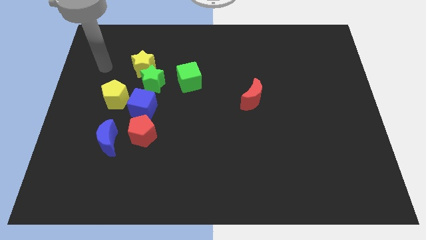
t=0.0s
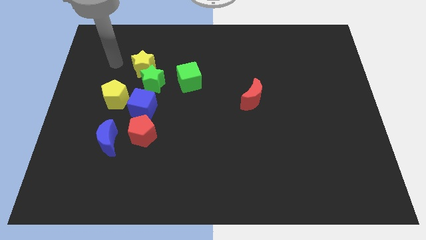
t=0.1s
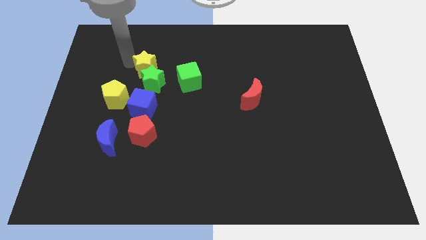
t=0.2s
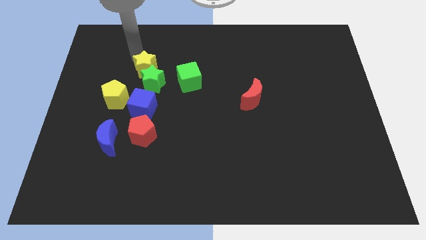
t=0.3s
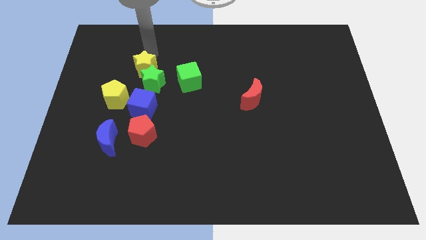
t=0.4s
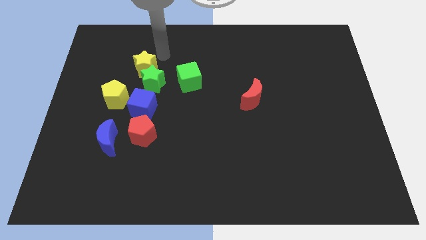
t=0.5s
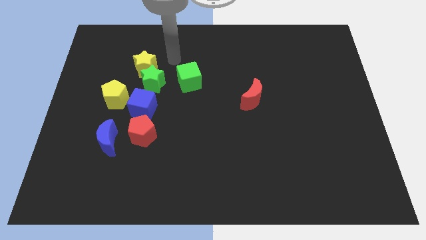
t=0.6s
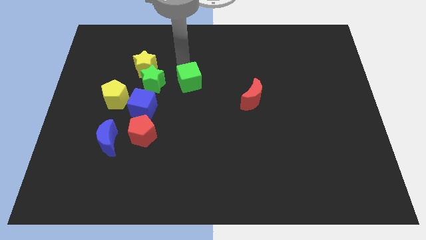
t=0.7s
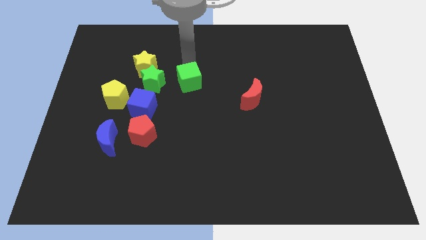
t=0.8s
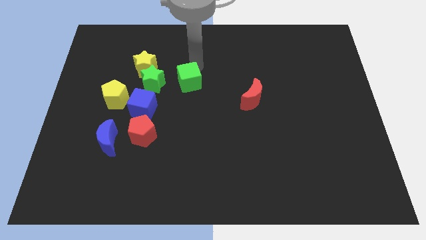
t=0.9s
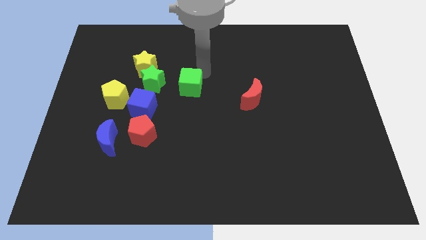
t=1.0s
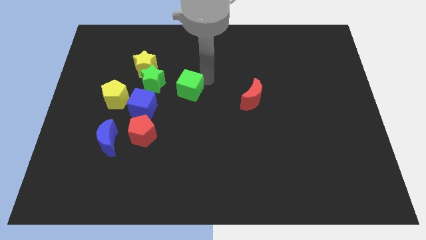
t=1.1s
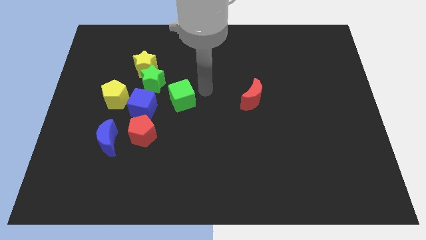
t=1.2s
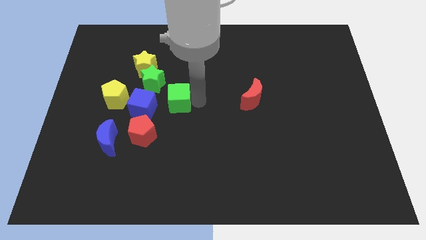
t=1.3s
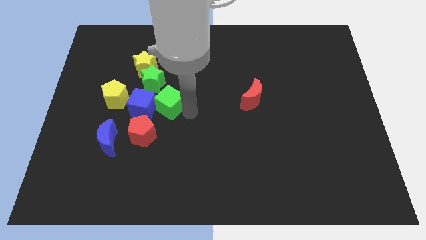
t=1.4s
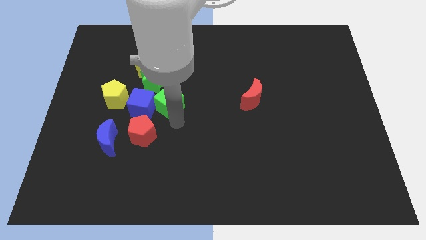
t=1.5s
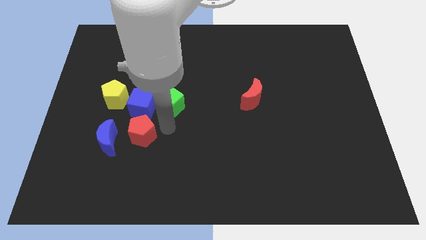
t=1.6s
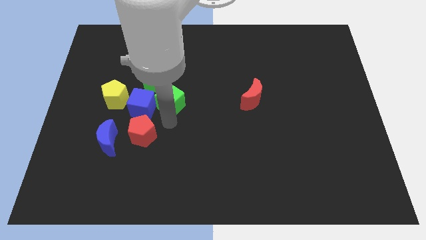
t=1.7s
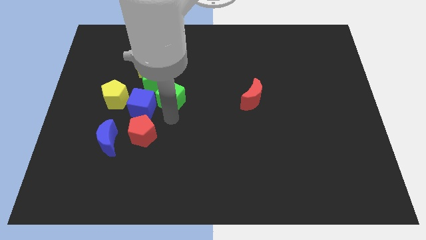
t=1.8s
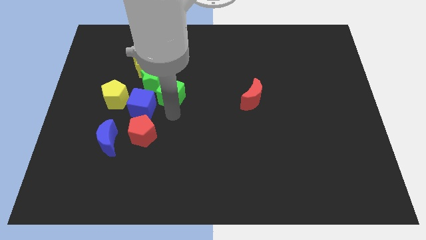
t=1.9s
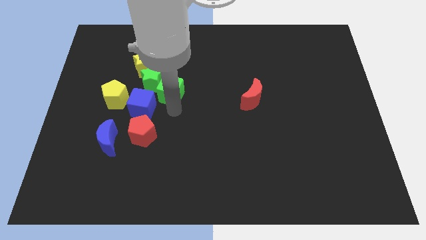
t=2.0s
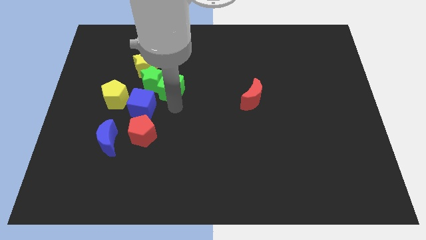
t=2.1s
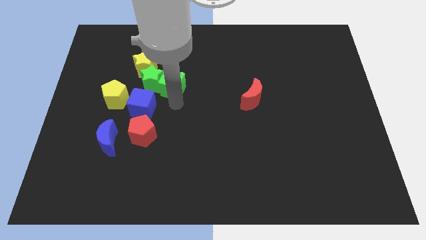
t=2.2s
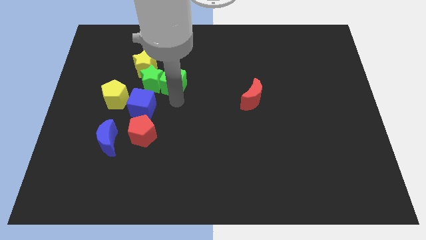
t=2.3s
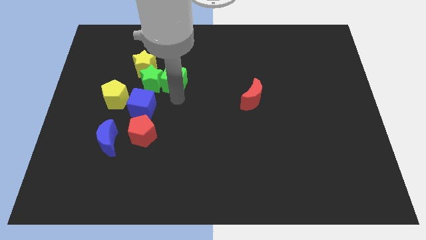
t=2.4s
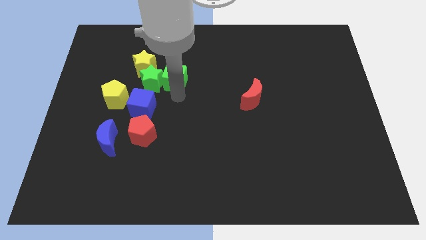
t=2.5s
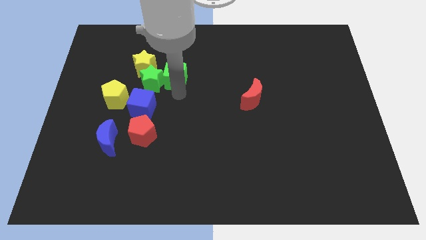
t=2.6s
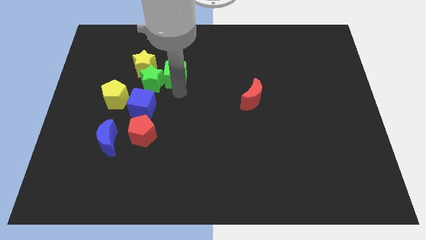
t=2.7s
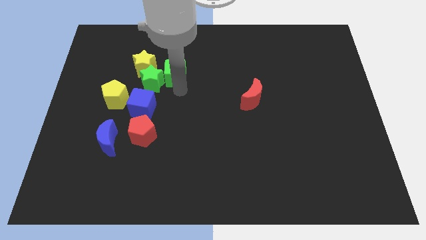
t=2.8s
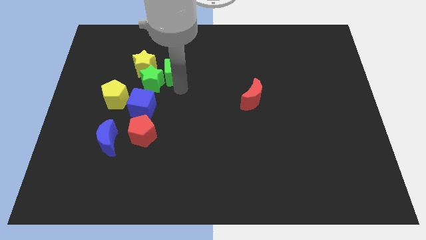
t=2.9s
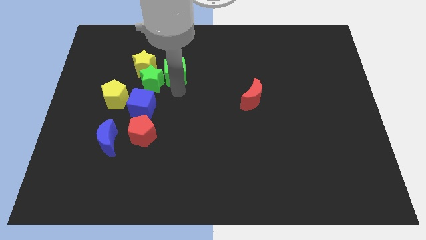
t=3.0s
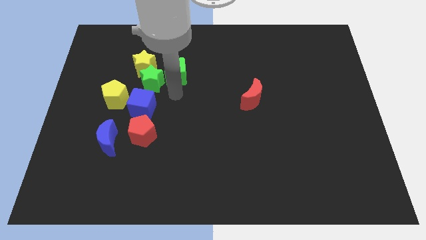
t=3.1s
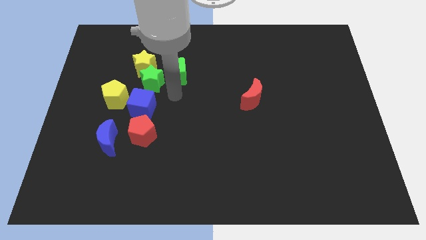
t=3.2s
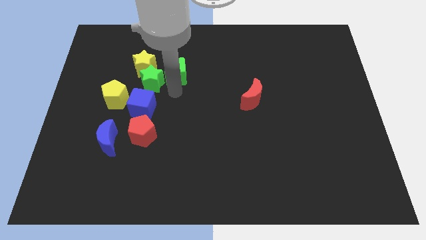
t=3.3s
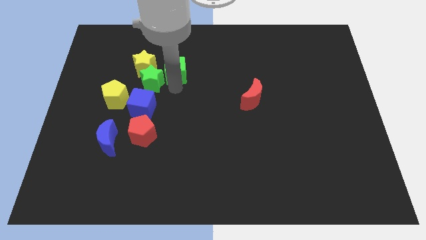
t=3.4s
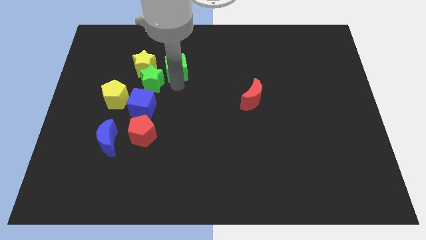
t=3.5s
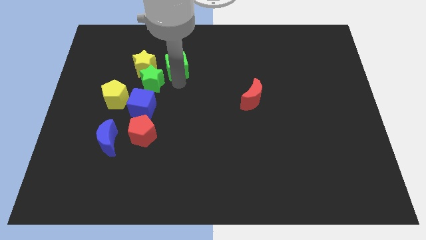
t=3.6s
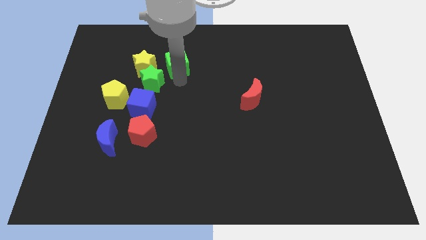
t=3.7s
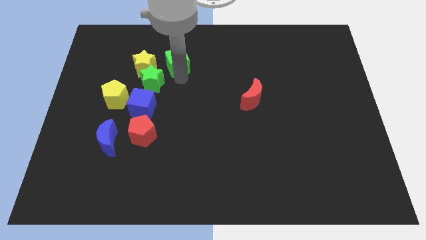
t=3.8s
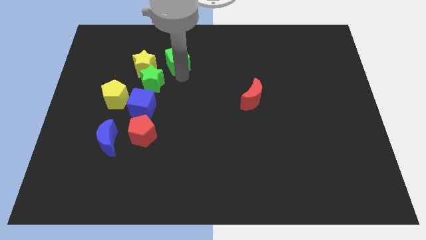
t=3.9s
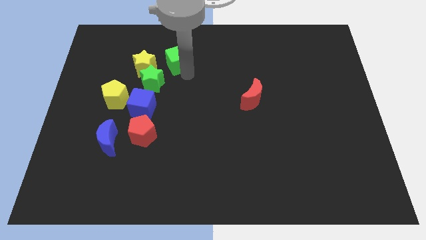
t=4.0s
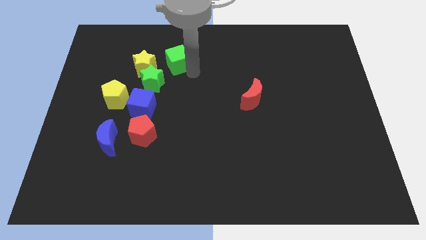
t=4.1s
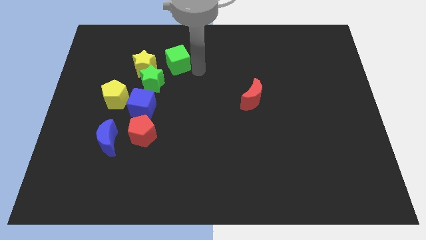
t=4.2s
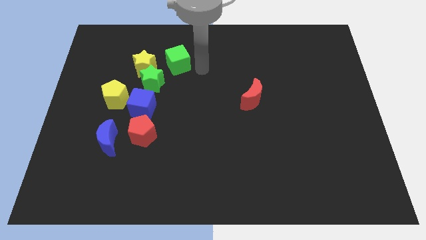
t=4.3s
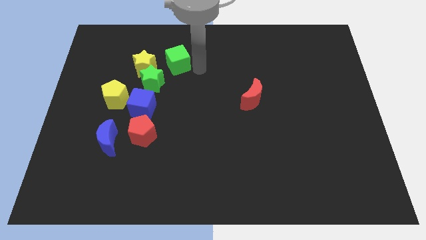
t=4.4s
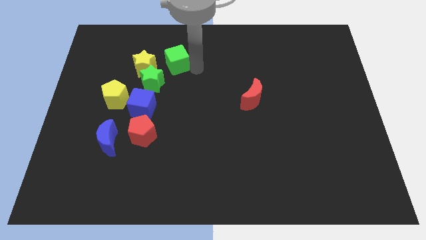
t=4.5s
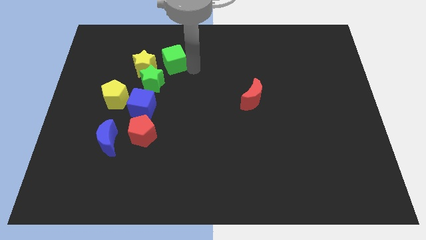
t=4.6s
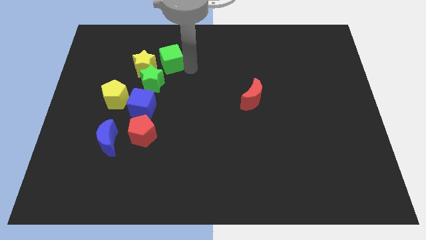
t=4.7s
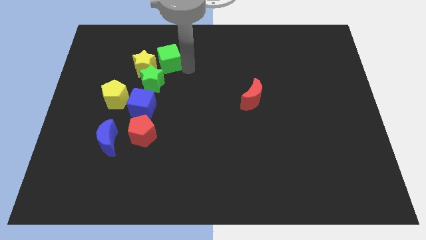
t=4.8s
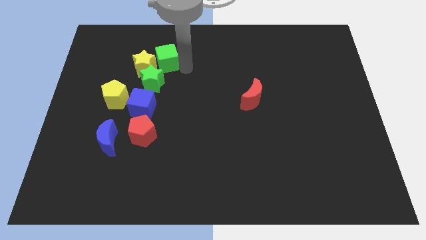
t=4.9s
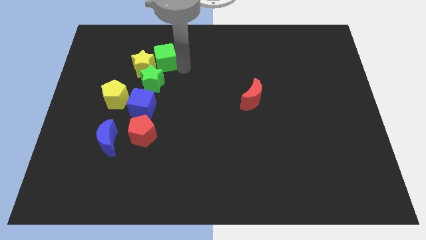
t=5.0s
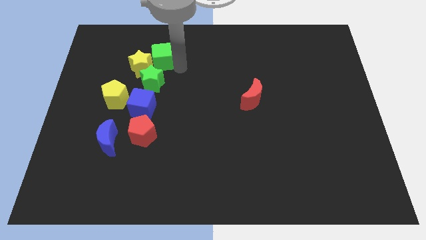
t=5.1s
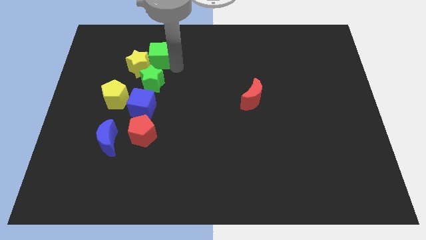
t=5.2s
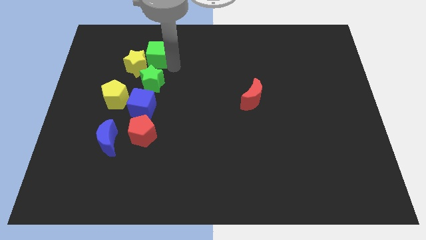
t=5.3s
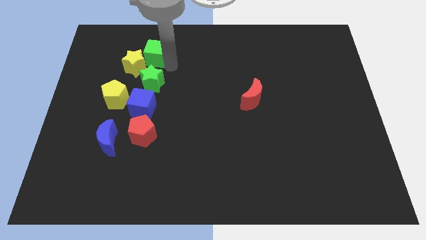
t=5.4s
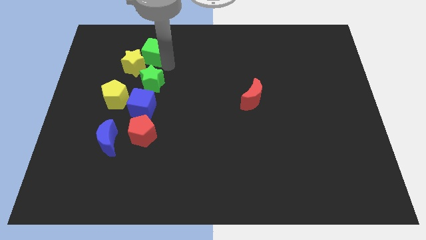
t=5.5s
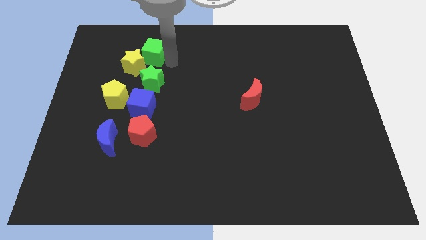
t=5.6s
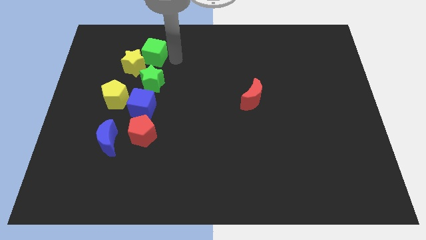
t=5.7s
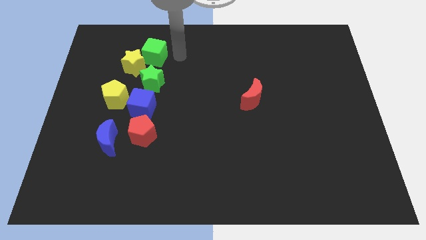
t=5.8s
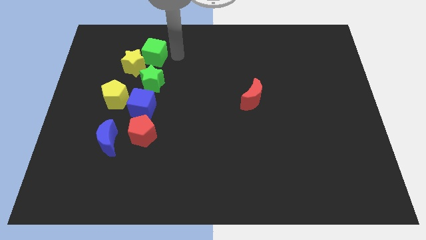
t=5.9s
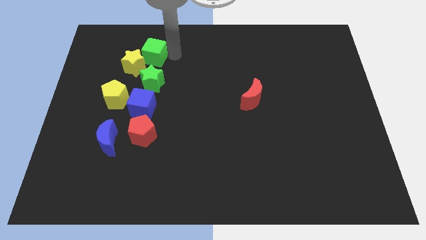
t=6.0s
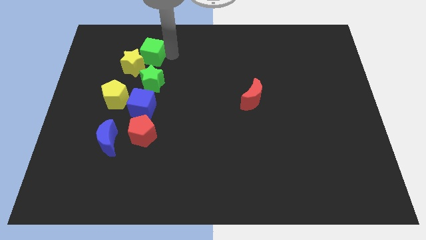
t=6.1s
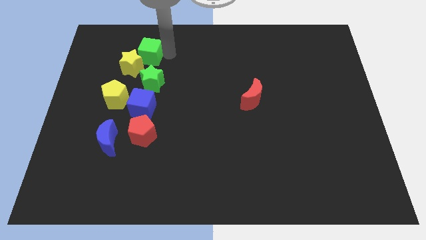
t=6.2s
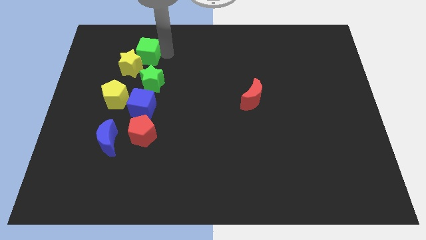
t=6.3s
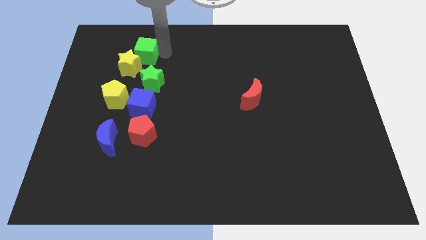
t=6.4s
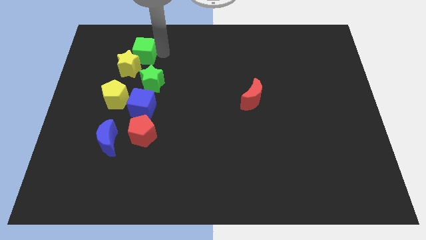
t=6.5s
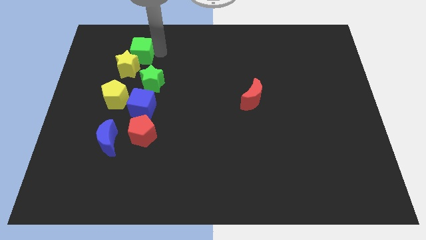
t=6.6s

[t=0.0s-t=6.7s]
put the green cube to the top left side of the green star
